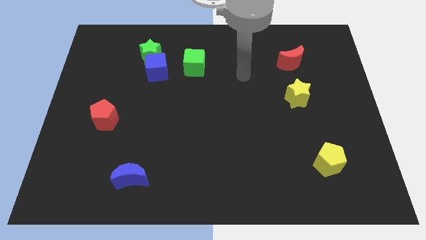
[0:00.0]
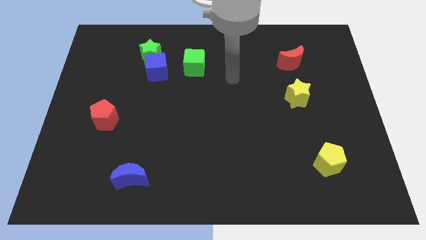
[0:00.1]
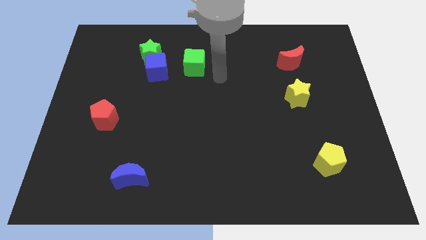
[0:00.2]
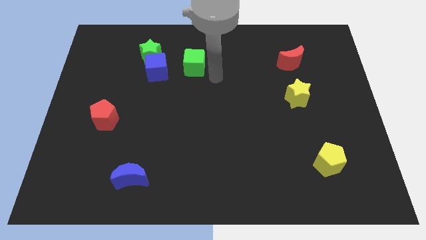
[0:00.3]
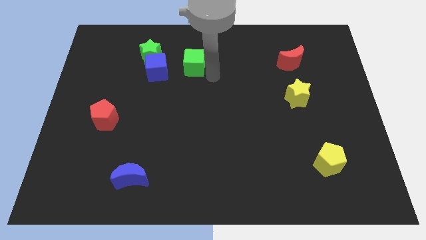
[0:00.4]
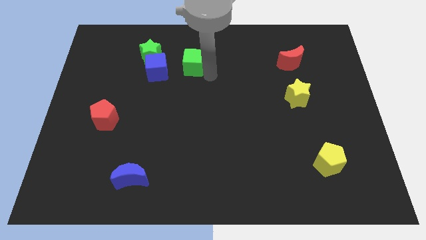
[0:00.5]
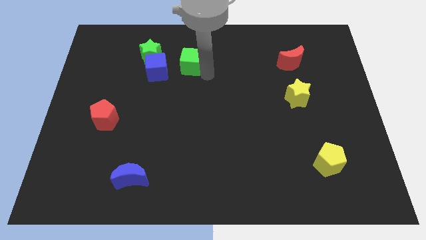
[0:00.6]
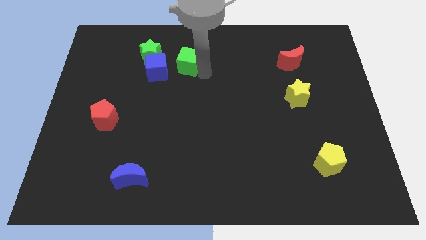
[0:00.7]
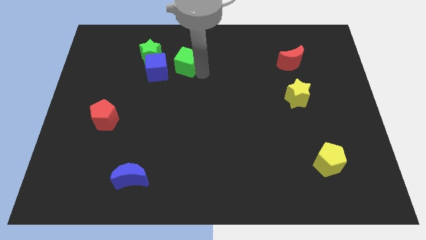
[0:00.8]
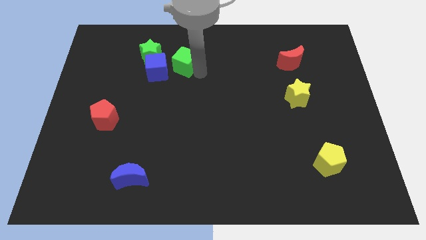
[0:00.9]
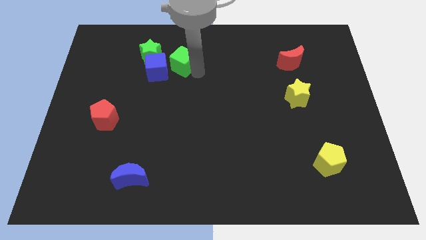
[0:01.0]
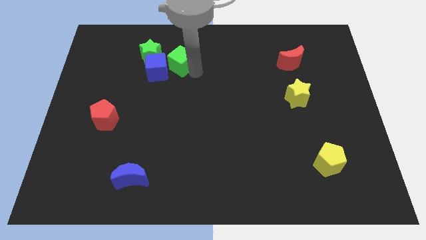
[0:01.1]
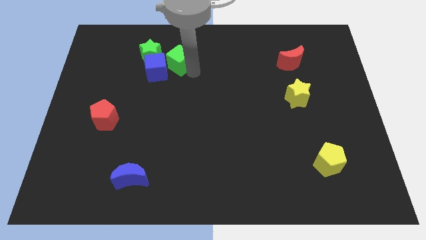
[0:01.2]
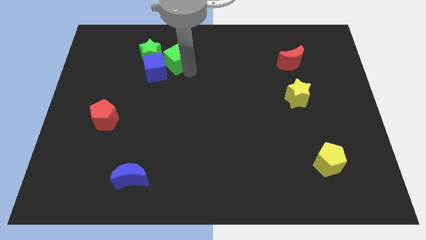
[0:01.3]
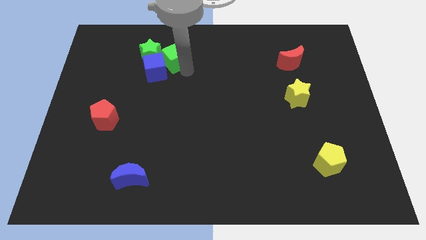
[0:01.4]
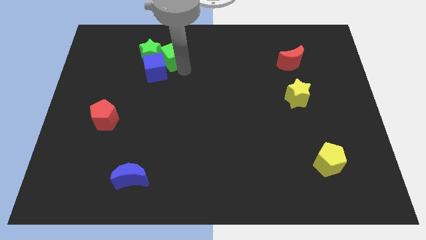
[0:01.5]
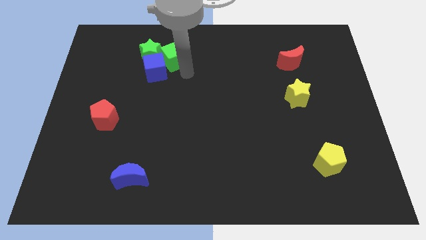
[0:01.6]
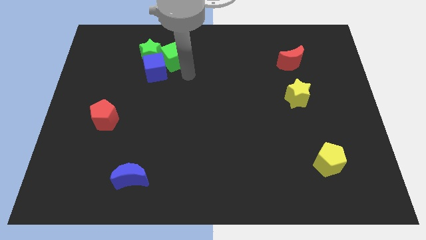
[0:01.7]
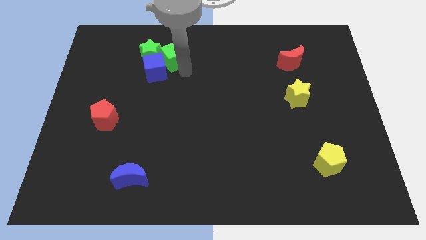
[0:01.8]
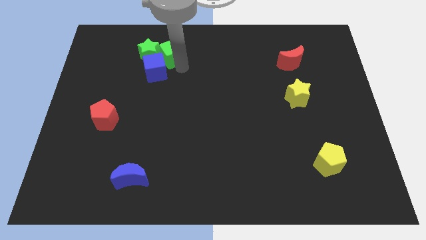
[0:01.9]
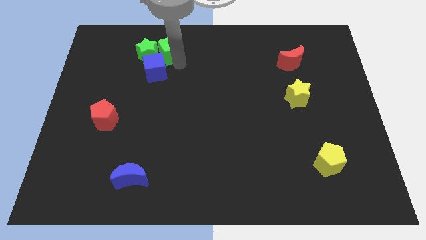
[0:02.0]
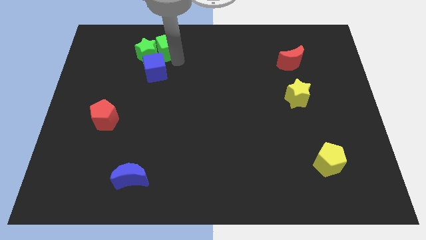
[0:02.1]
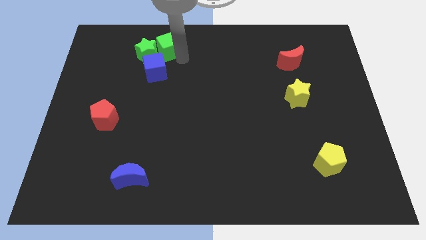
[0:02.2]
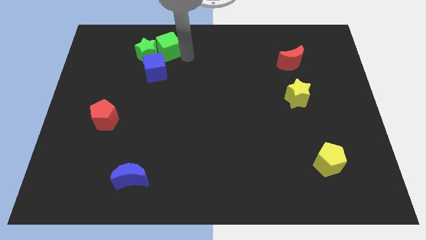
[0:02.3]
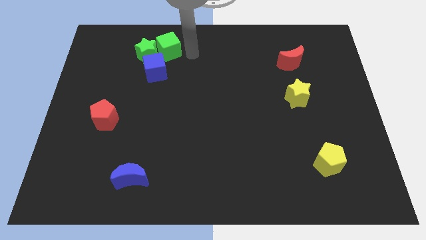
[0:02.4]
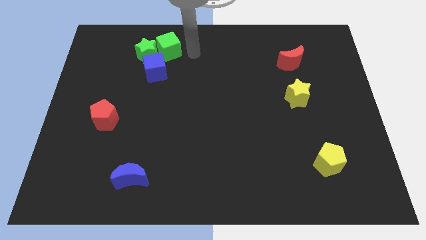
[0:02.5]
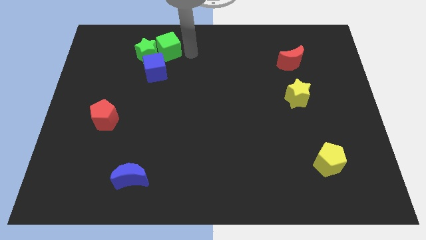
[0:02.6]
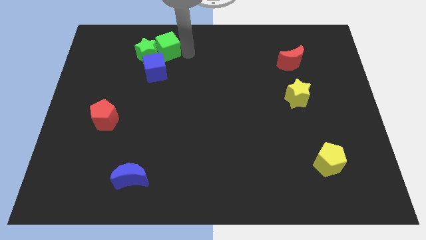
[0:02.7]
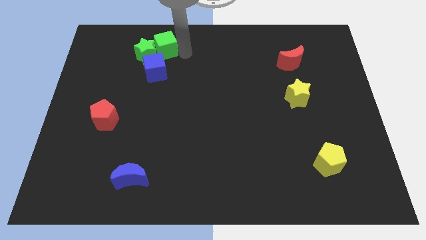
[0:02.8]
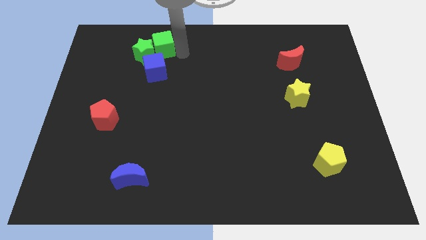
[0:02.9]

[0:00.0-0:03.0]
slightly push the green cube to the left

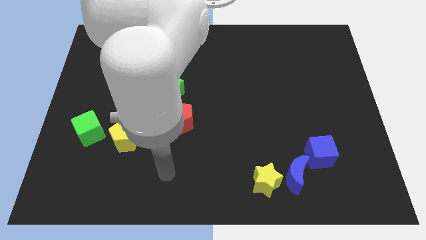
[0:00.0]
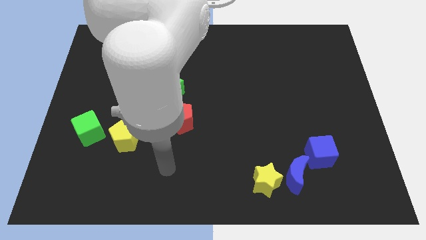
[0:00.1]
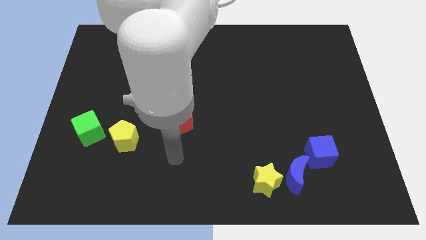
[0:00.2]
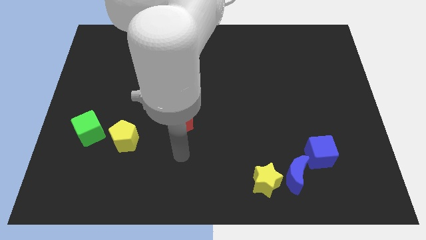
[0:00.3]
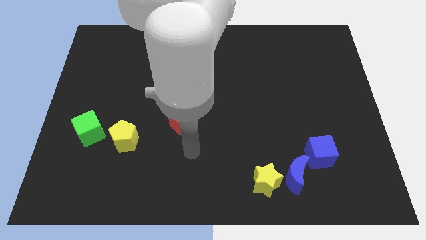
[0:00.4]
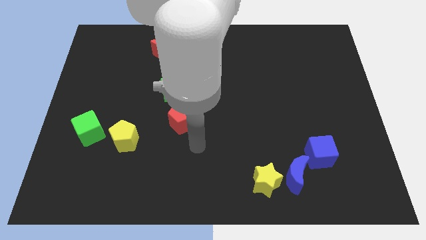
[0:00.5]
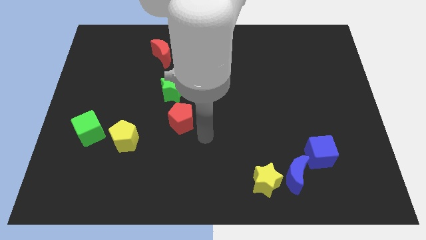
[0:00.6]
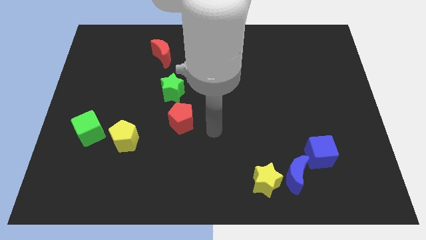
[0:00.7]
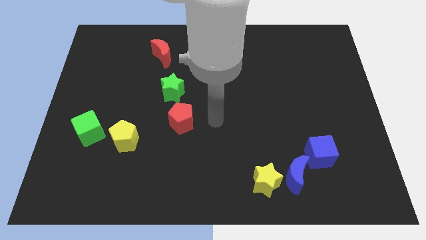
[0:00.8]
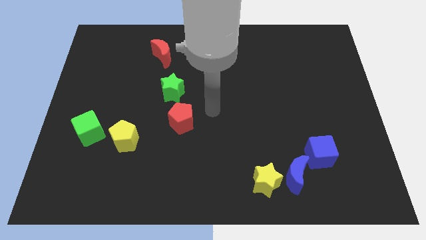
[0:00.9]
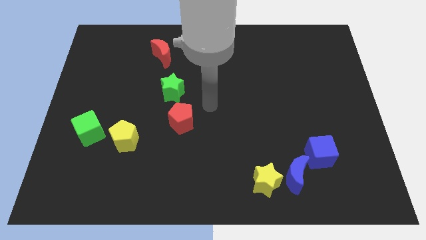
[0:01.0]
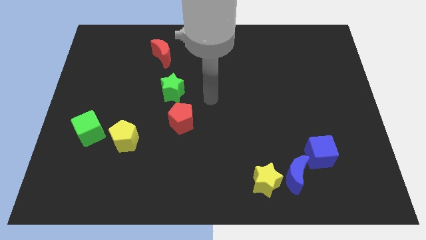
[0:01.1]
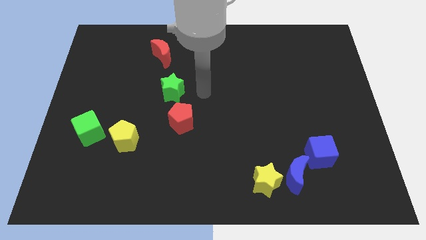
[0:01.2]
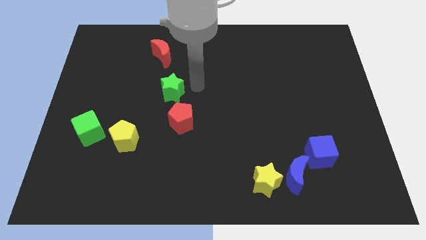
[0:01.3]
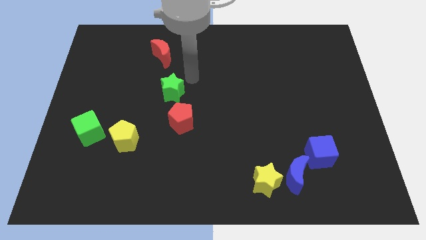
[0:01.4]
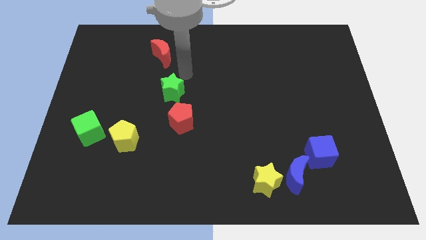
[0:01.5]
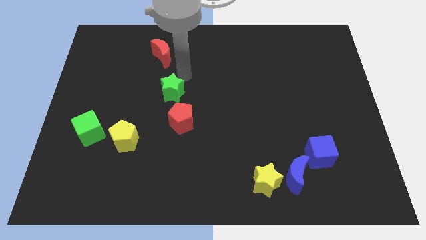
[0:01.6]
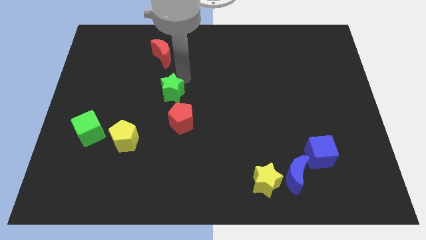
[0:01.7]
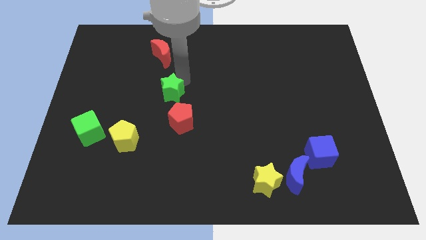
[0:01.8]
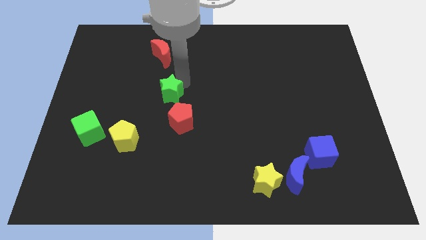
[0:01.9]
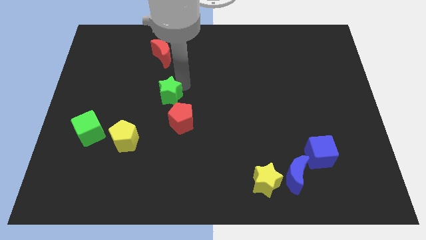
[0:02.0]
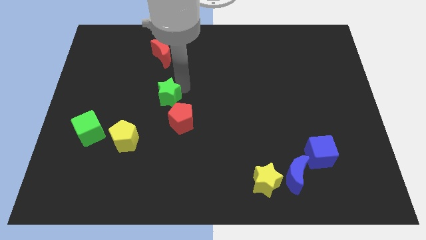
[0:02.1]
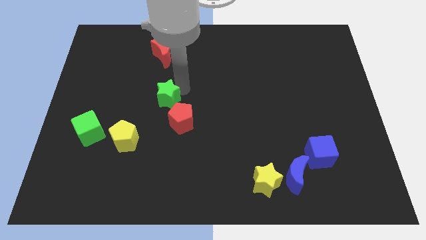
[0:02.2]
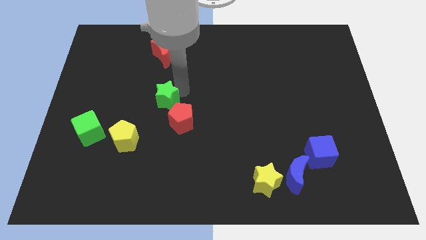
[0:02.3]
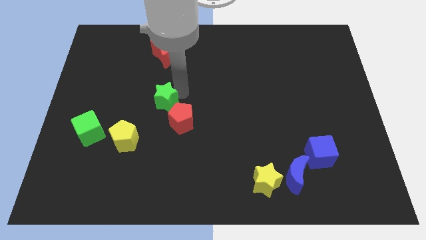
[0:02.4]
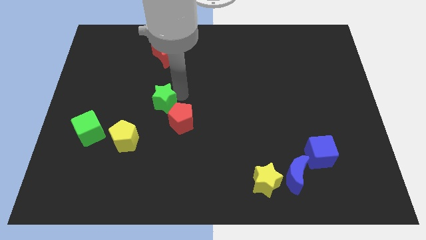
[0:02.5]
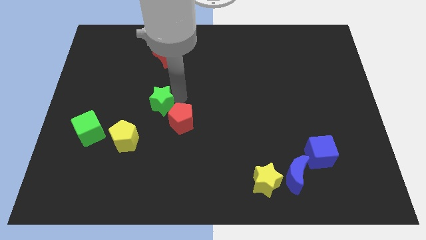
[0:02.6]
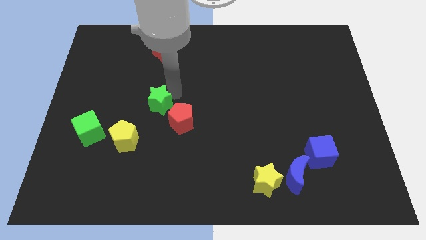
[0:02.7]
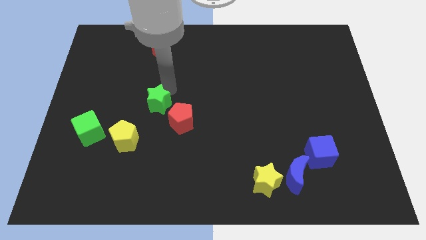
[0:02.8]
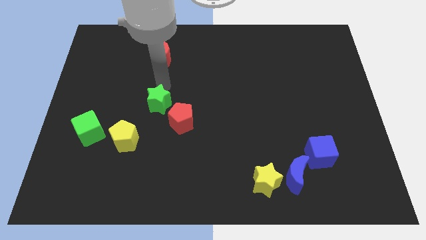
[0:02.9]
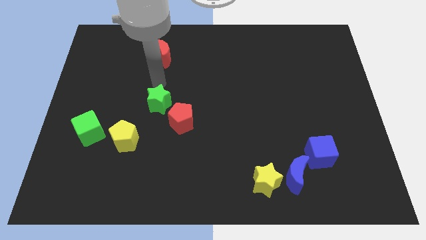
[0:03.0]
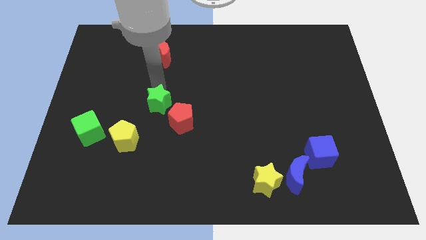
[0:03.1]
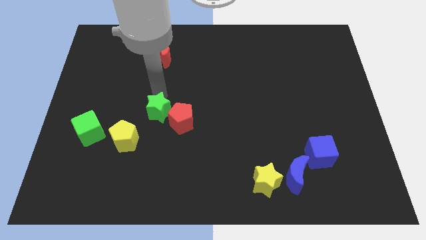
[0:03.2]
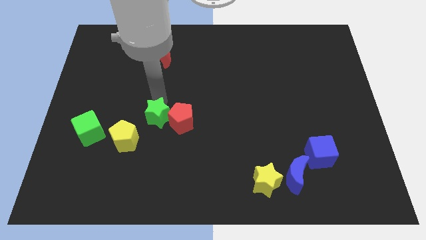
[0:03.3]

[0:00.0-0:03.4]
slightly slide the green star downwards

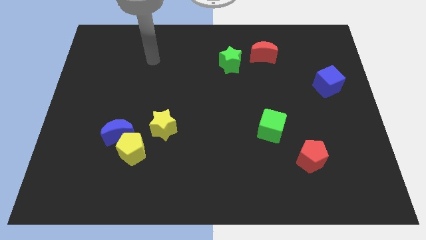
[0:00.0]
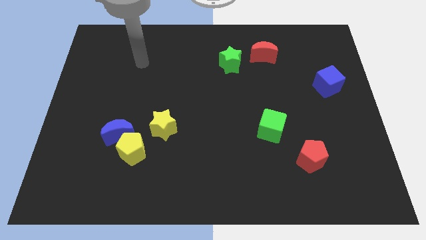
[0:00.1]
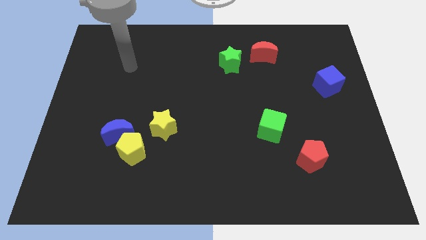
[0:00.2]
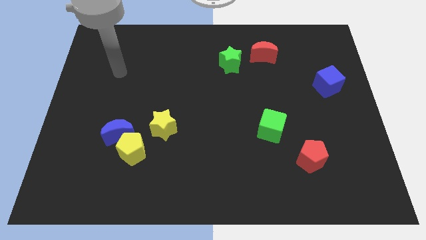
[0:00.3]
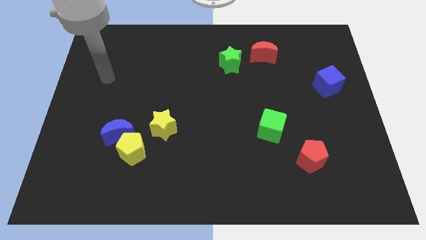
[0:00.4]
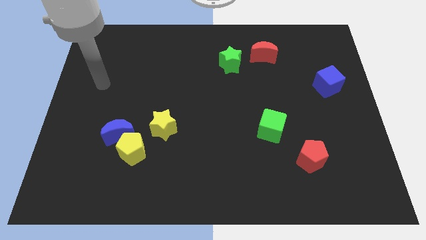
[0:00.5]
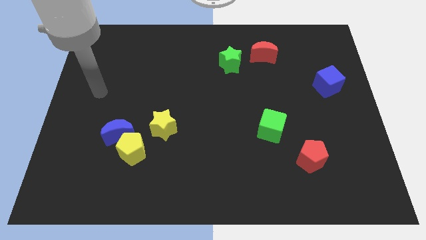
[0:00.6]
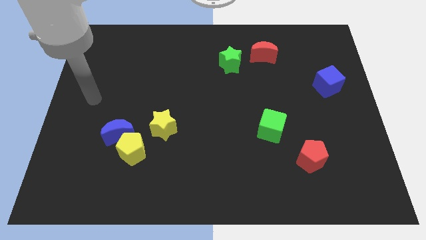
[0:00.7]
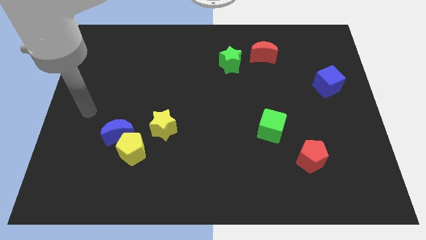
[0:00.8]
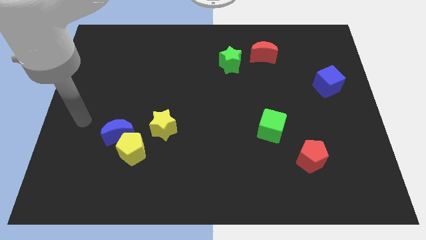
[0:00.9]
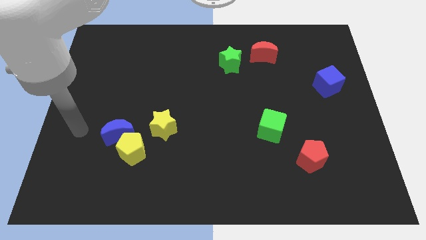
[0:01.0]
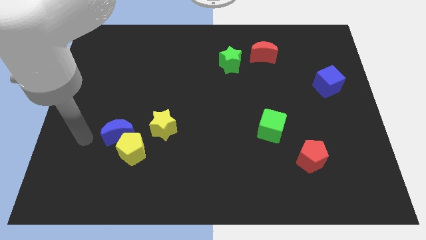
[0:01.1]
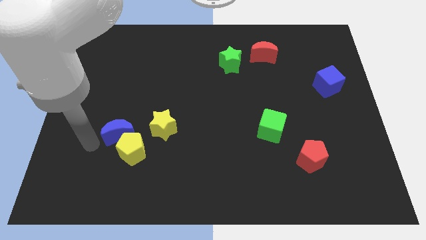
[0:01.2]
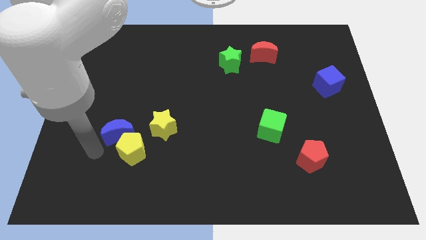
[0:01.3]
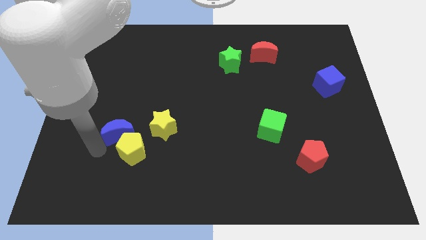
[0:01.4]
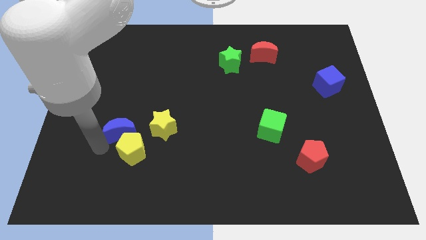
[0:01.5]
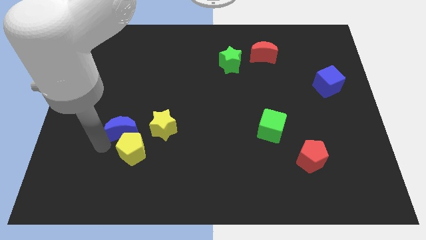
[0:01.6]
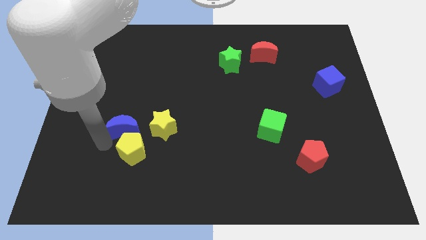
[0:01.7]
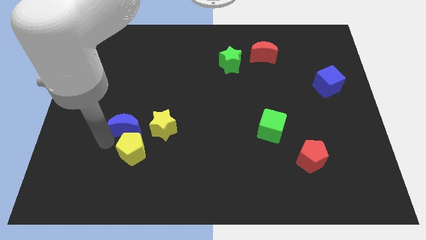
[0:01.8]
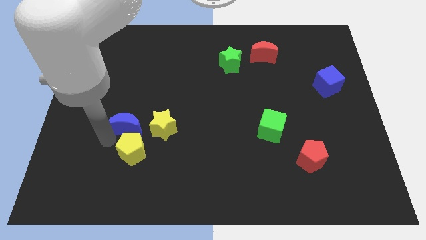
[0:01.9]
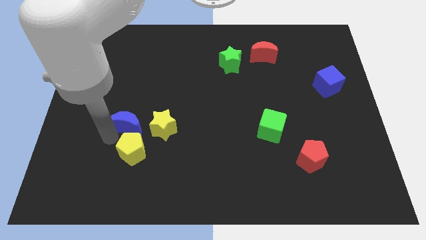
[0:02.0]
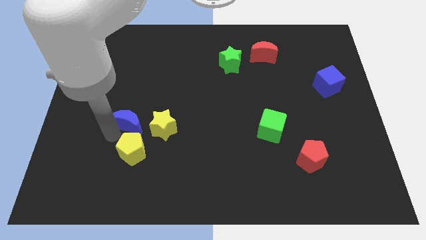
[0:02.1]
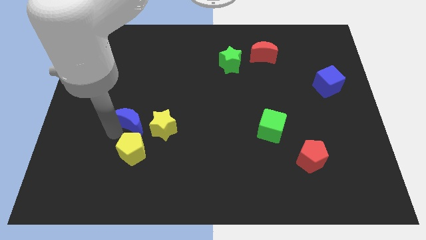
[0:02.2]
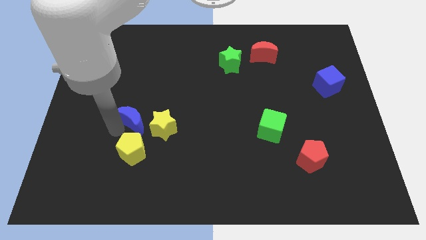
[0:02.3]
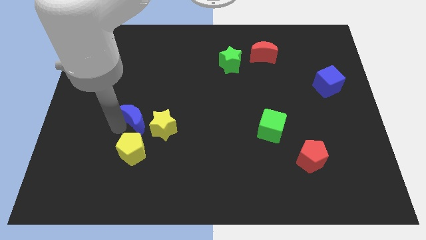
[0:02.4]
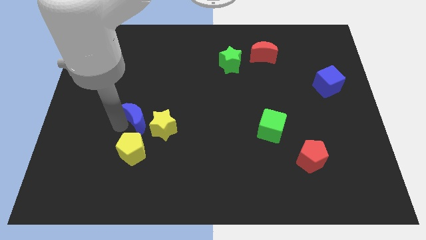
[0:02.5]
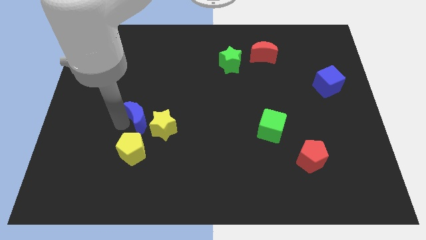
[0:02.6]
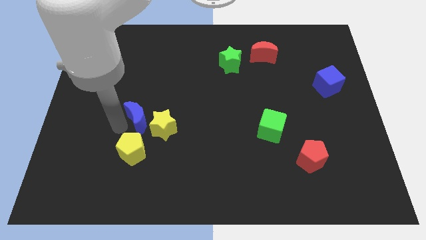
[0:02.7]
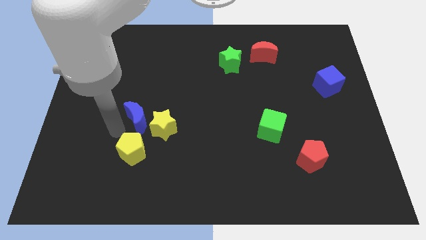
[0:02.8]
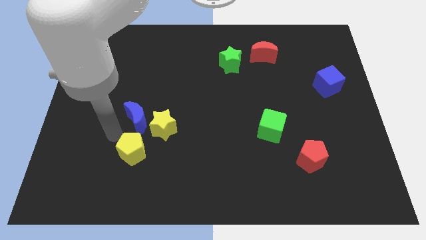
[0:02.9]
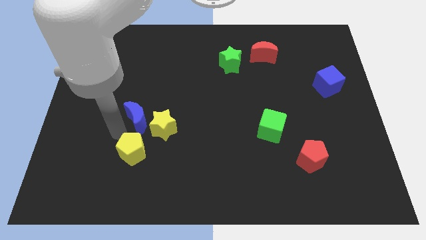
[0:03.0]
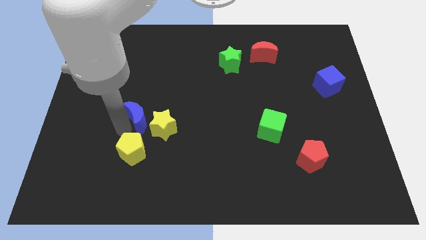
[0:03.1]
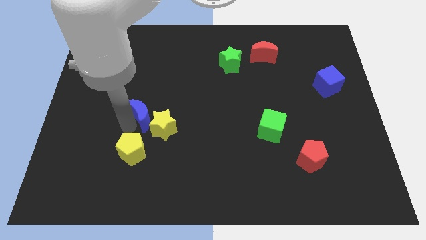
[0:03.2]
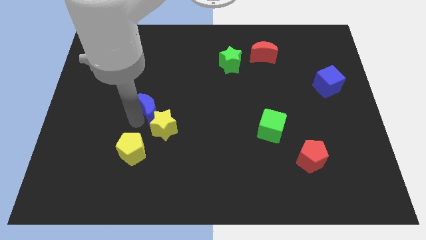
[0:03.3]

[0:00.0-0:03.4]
push the blue moon a bit upwards and then right
